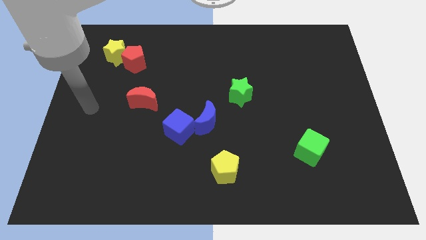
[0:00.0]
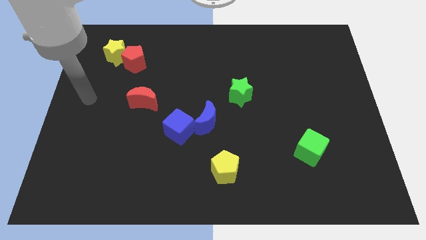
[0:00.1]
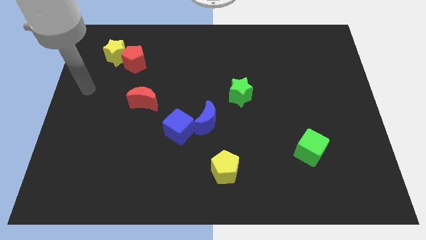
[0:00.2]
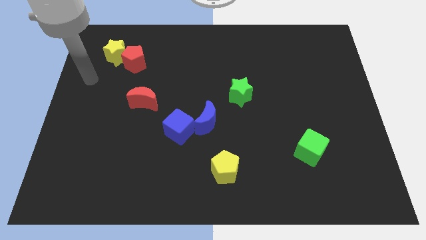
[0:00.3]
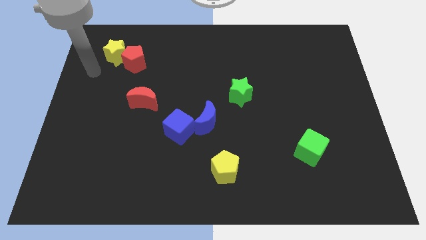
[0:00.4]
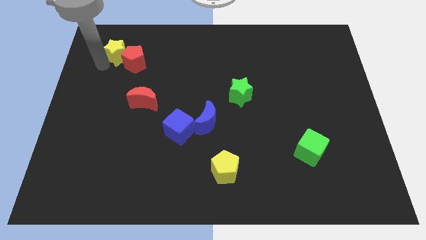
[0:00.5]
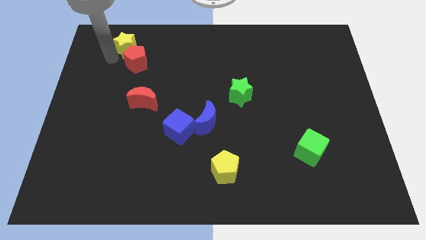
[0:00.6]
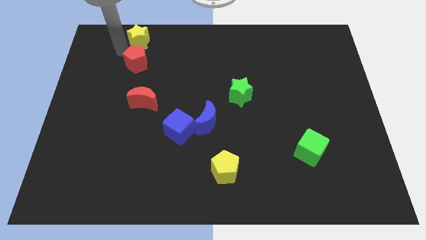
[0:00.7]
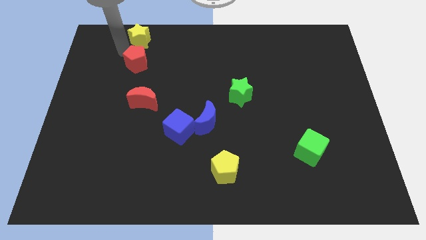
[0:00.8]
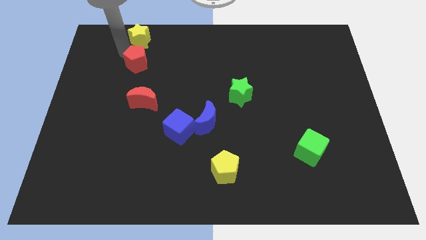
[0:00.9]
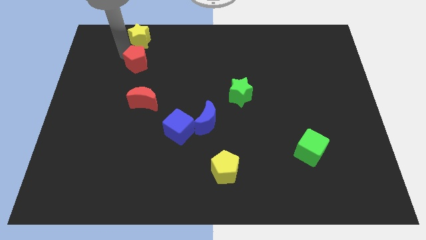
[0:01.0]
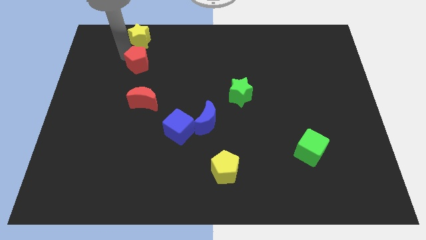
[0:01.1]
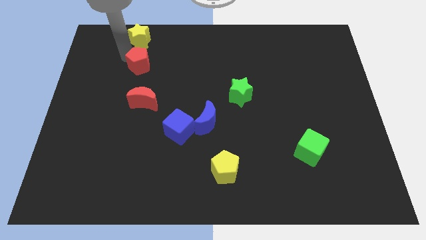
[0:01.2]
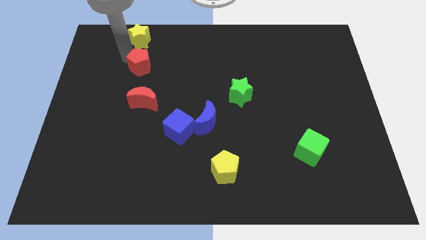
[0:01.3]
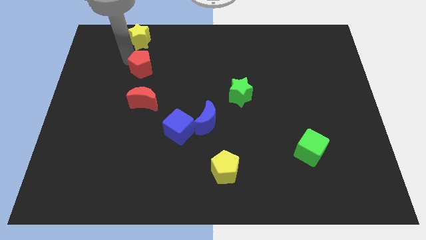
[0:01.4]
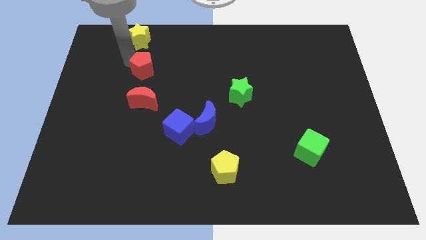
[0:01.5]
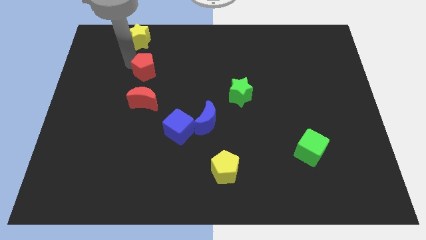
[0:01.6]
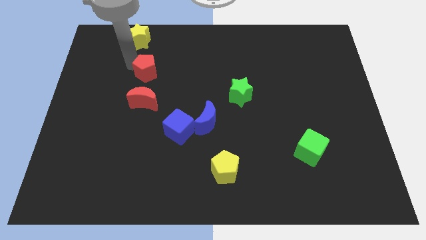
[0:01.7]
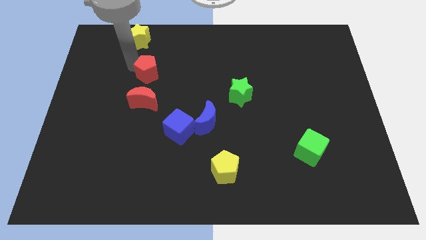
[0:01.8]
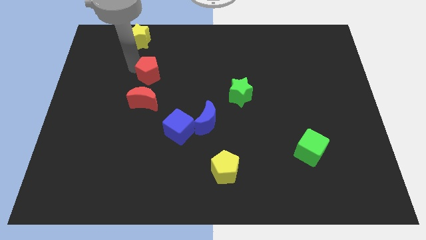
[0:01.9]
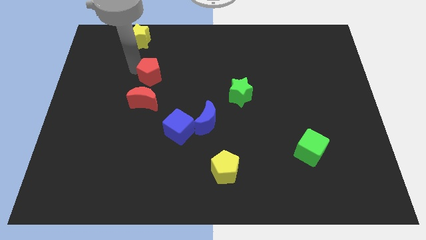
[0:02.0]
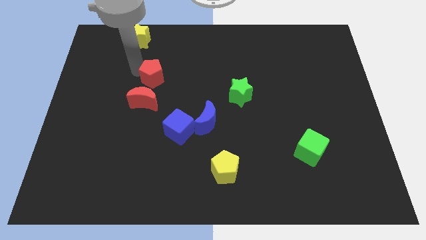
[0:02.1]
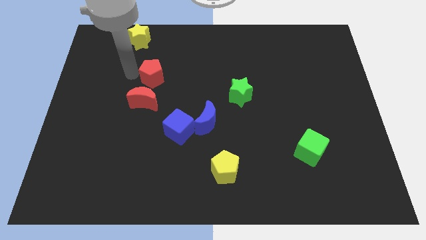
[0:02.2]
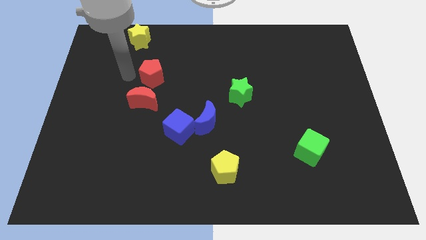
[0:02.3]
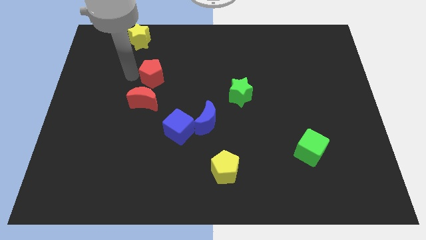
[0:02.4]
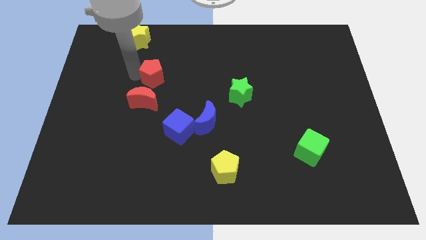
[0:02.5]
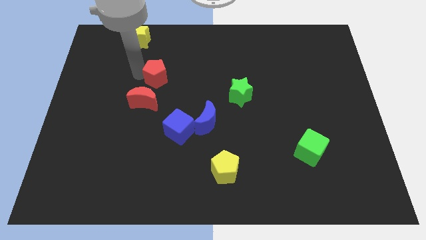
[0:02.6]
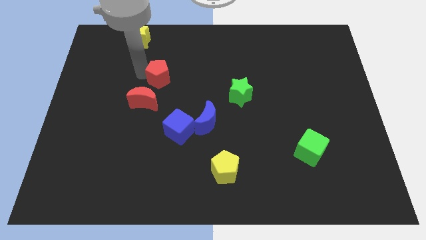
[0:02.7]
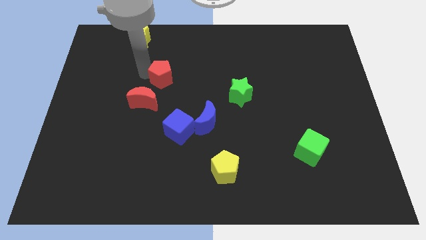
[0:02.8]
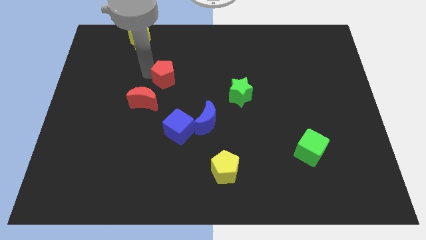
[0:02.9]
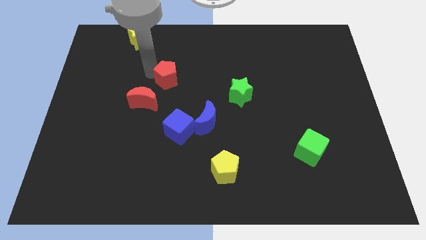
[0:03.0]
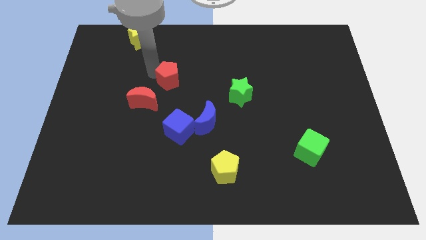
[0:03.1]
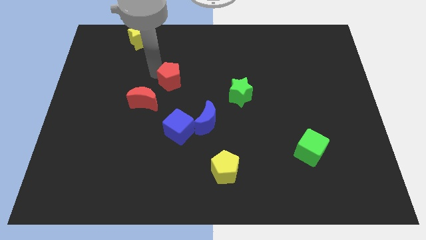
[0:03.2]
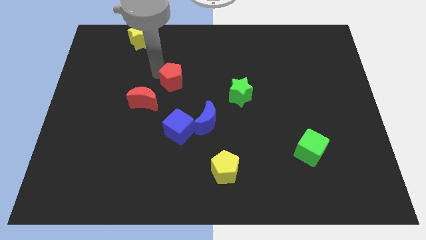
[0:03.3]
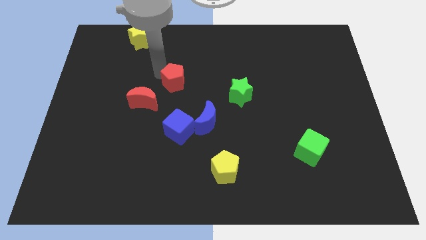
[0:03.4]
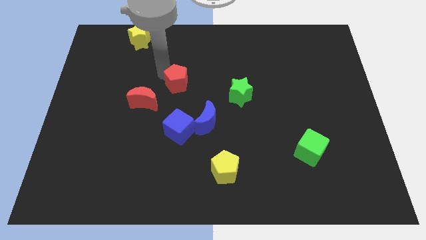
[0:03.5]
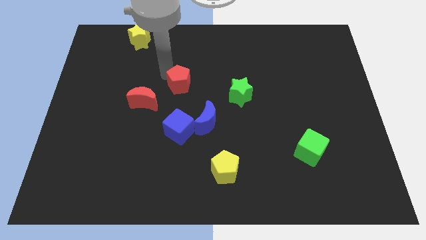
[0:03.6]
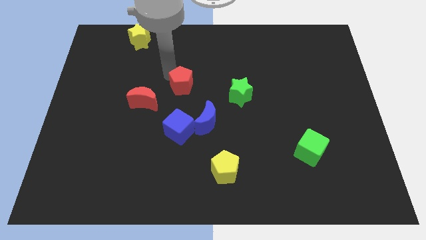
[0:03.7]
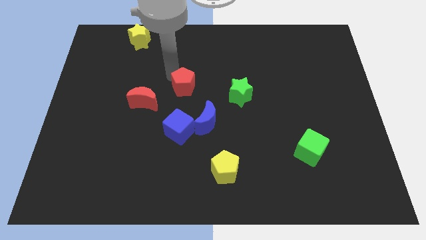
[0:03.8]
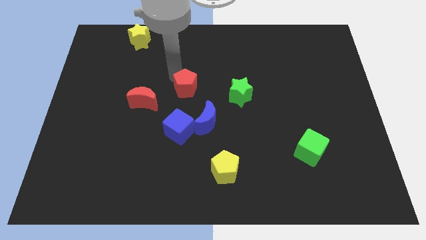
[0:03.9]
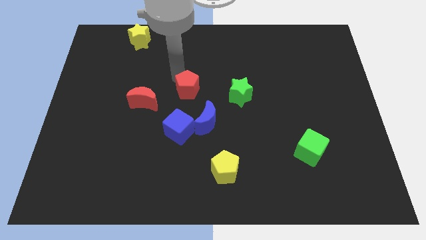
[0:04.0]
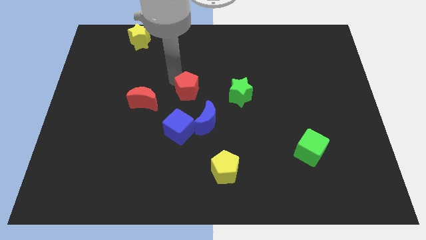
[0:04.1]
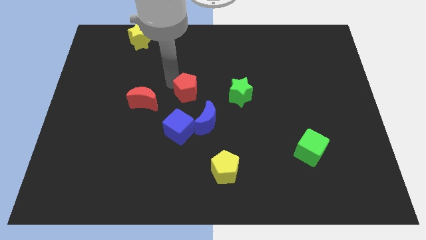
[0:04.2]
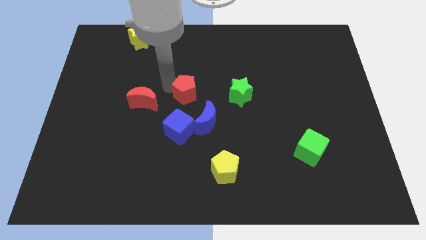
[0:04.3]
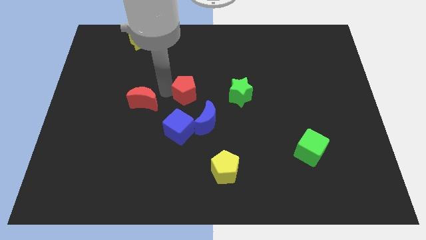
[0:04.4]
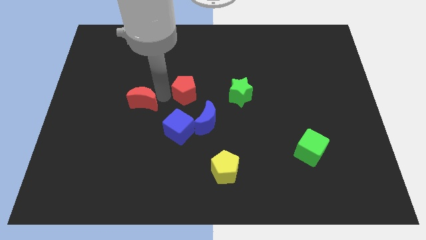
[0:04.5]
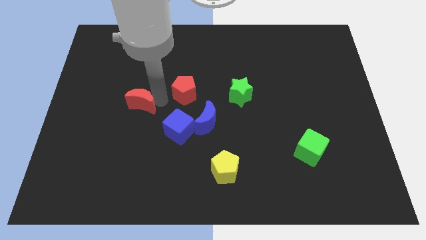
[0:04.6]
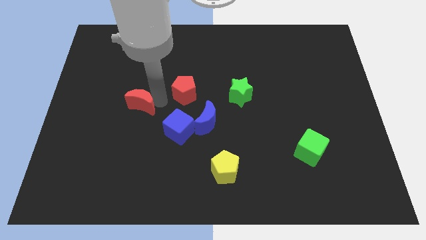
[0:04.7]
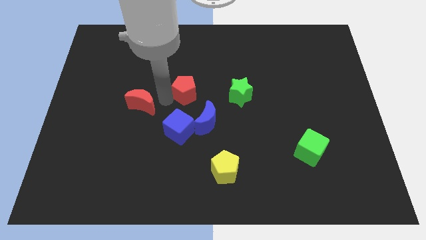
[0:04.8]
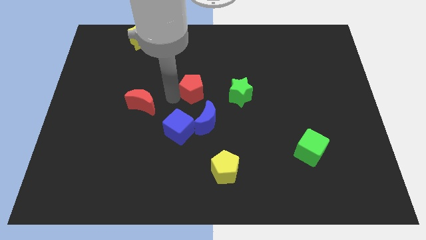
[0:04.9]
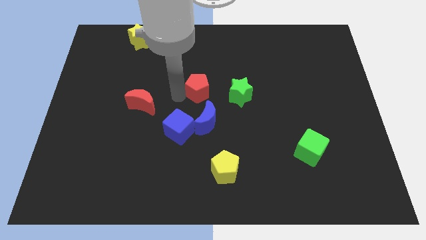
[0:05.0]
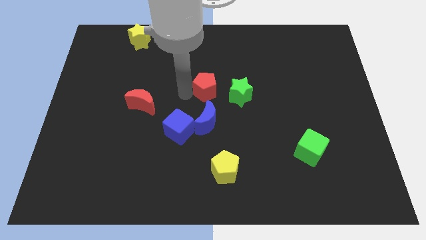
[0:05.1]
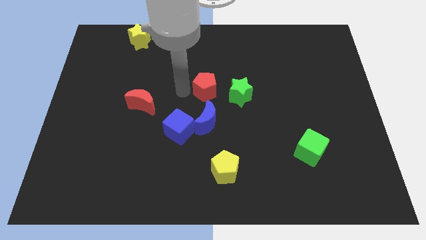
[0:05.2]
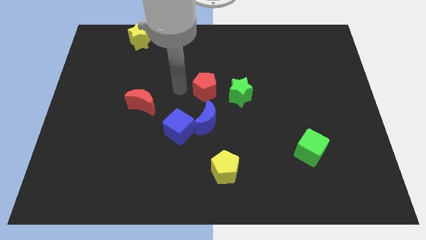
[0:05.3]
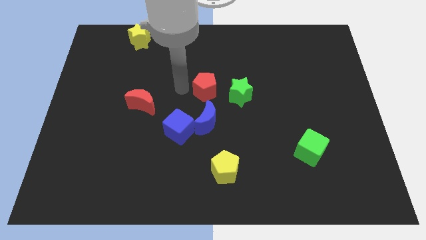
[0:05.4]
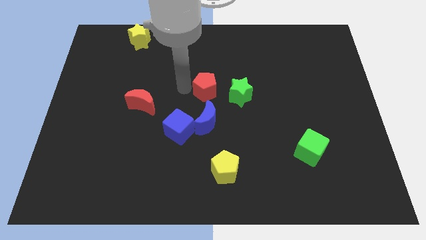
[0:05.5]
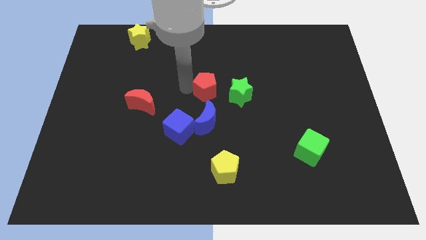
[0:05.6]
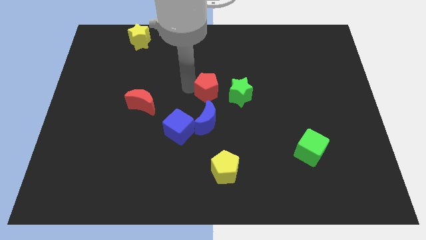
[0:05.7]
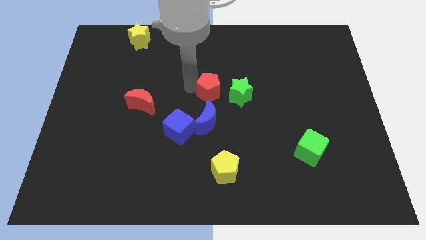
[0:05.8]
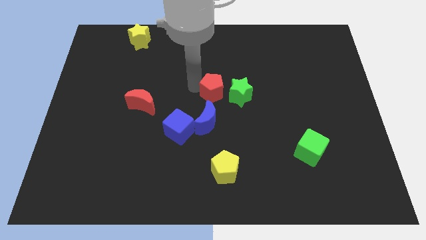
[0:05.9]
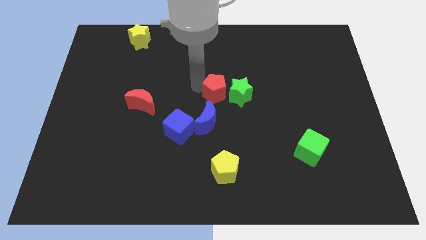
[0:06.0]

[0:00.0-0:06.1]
move the red pentagon close to the green star

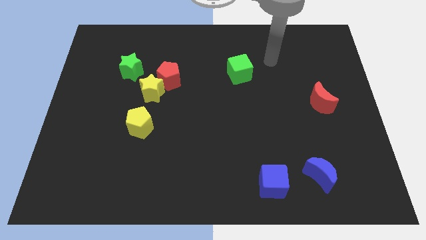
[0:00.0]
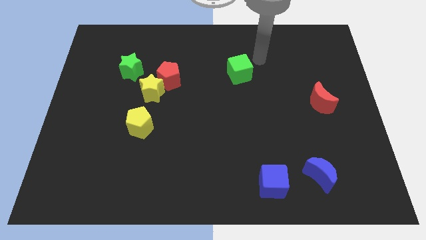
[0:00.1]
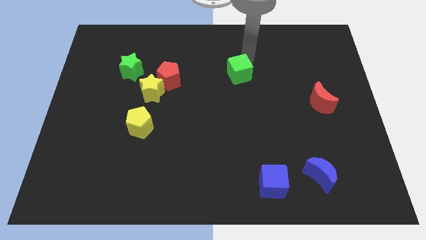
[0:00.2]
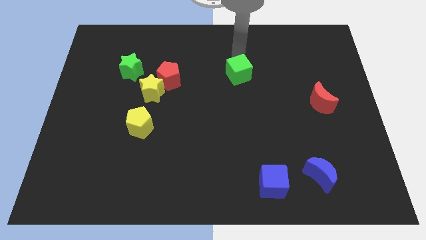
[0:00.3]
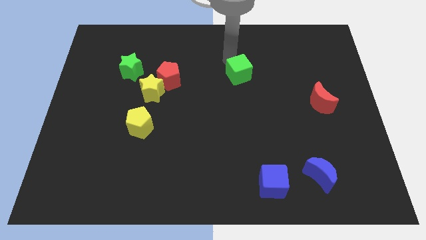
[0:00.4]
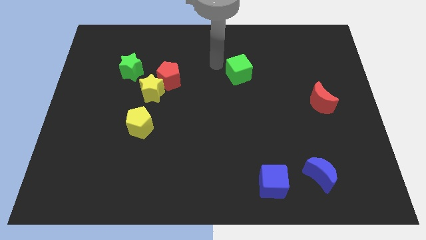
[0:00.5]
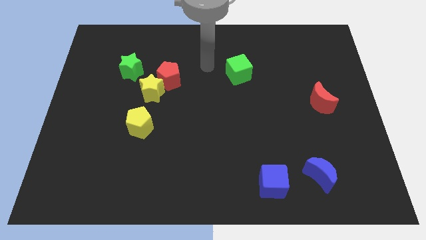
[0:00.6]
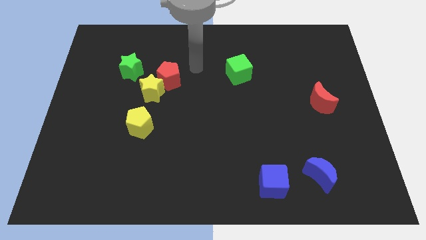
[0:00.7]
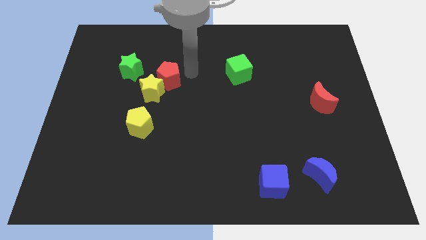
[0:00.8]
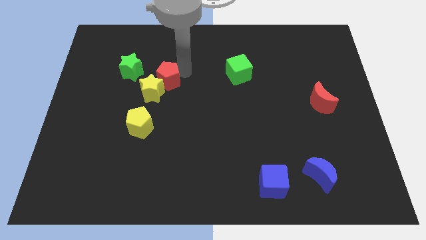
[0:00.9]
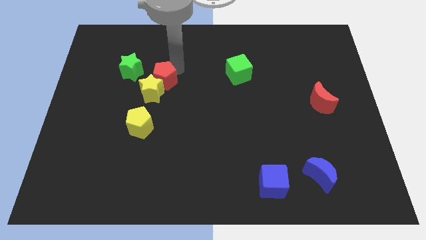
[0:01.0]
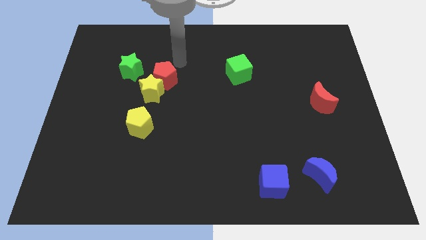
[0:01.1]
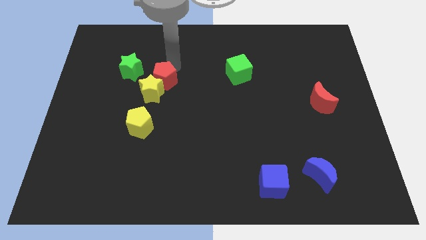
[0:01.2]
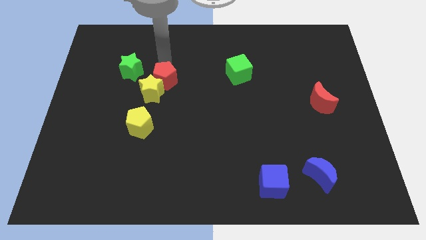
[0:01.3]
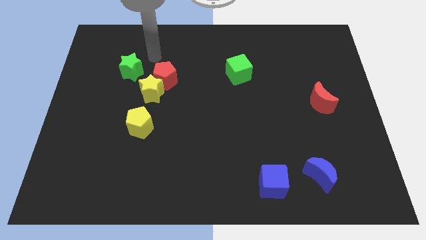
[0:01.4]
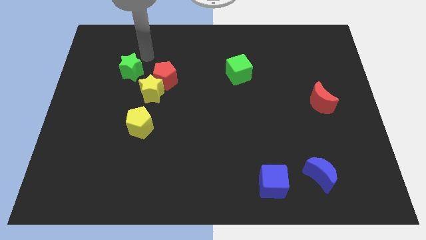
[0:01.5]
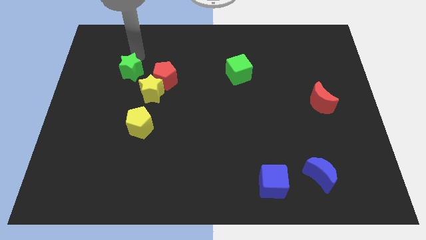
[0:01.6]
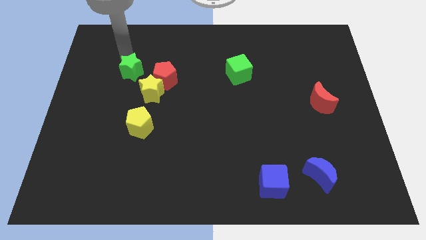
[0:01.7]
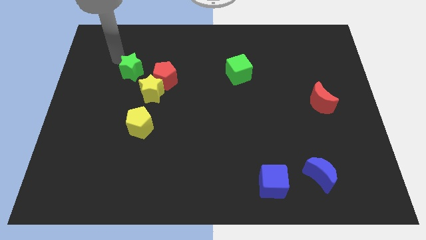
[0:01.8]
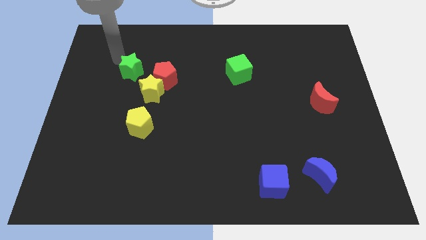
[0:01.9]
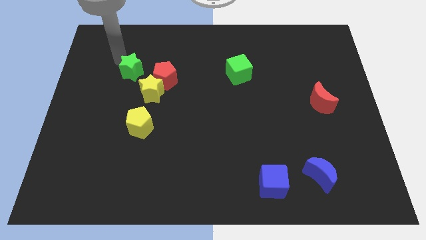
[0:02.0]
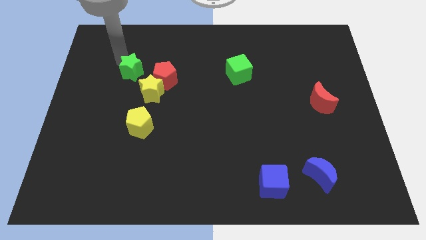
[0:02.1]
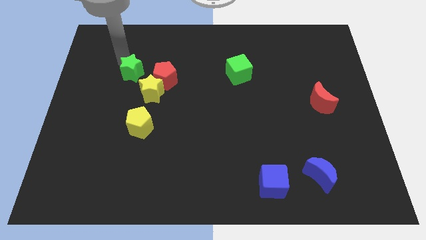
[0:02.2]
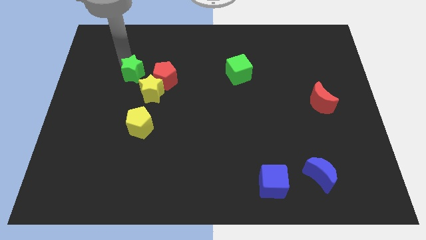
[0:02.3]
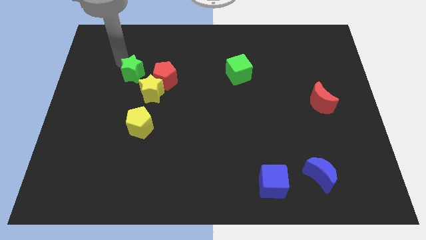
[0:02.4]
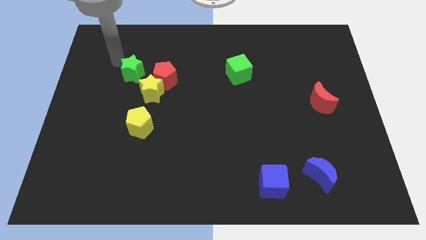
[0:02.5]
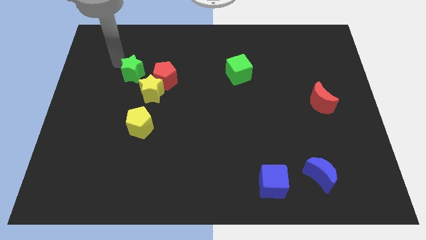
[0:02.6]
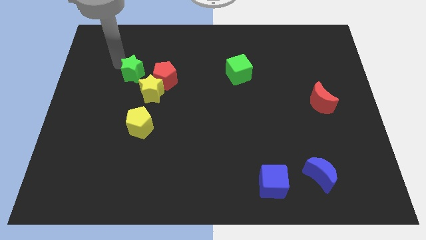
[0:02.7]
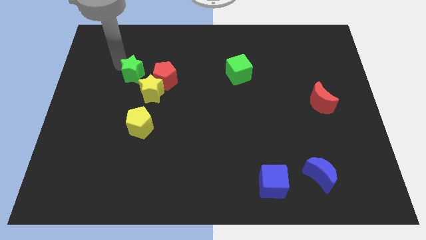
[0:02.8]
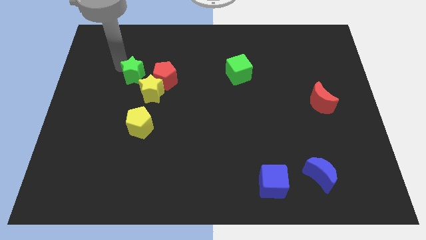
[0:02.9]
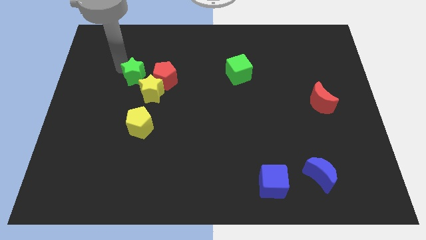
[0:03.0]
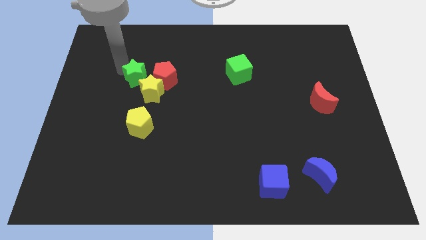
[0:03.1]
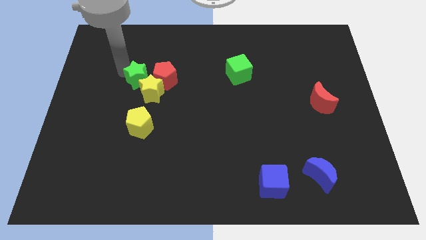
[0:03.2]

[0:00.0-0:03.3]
put the green star to the yellow star
